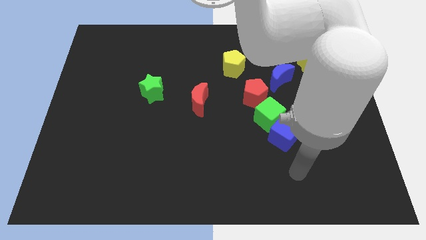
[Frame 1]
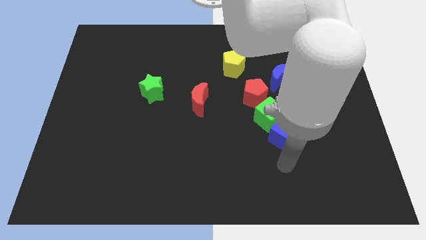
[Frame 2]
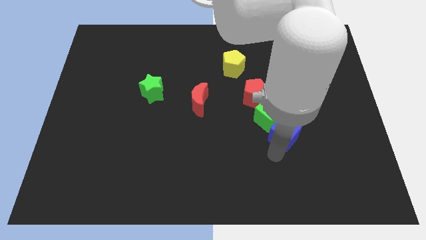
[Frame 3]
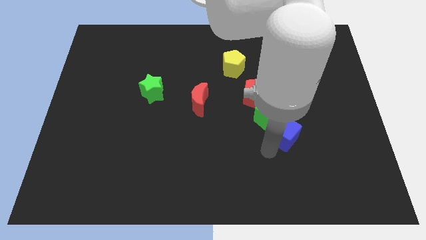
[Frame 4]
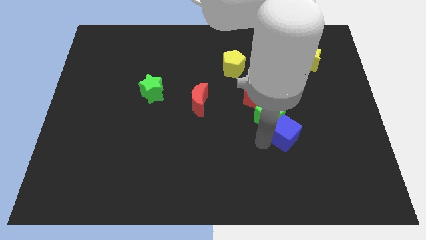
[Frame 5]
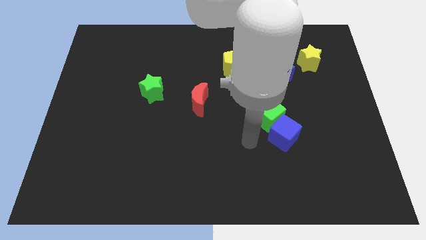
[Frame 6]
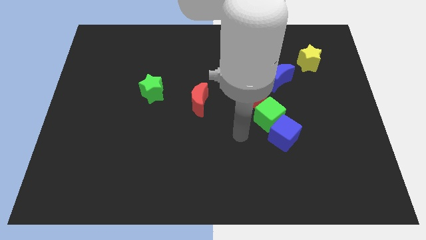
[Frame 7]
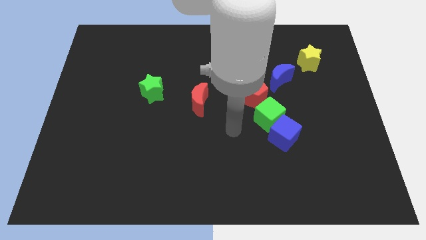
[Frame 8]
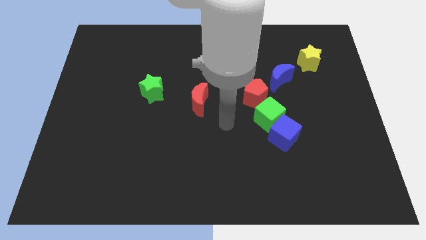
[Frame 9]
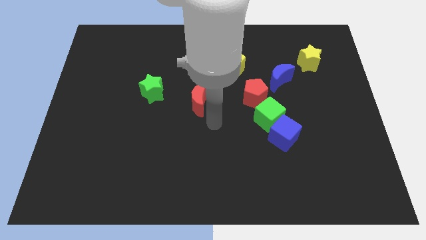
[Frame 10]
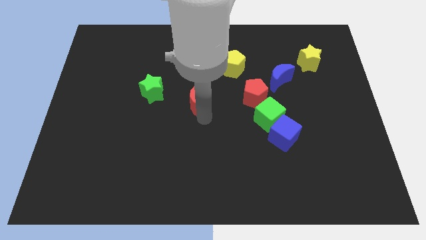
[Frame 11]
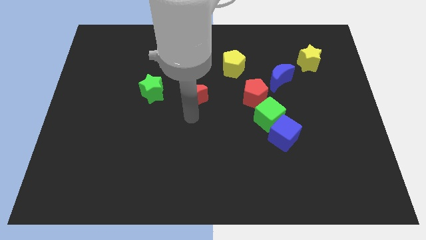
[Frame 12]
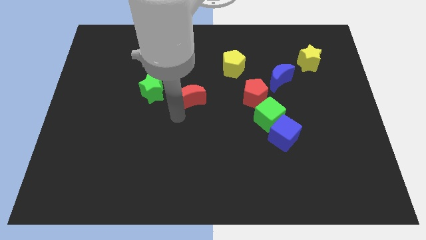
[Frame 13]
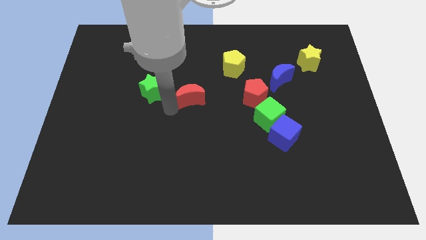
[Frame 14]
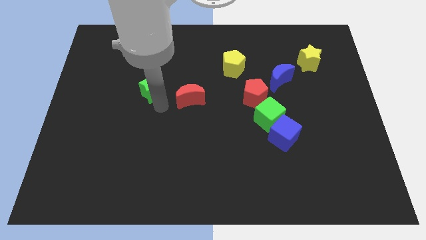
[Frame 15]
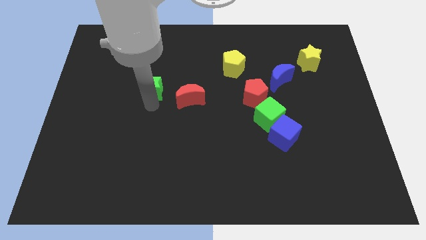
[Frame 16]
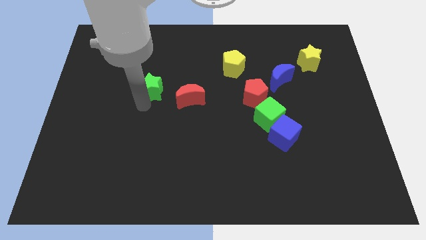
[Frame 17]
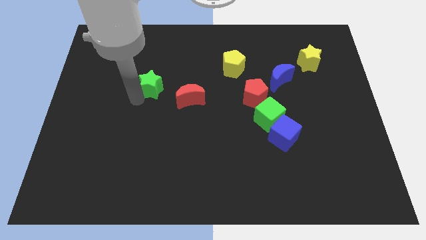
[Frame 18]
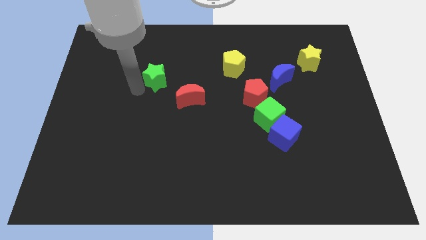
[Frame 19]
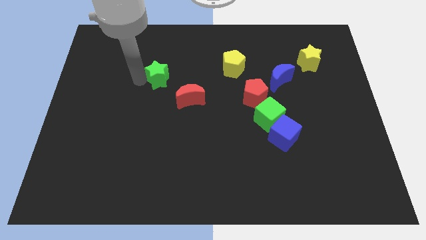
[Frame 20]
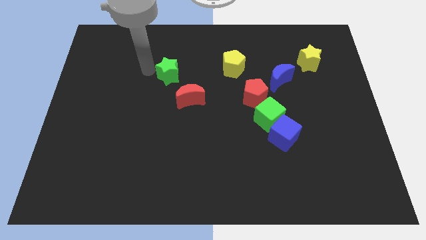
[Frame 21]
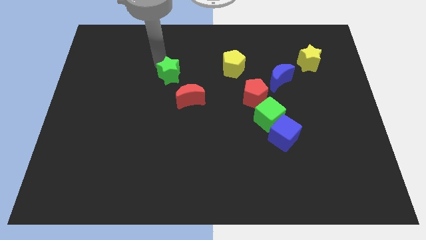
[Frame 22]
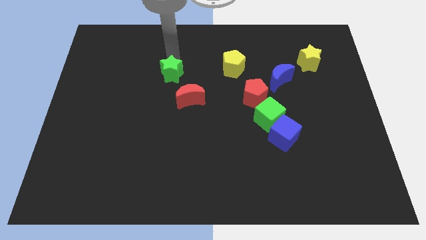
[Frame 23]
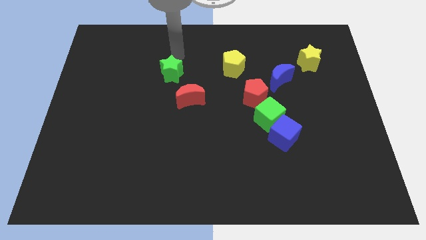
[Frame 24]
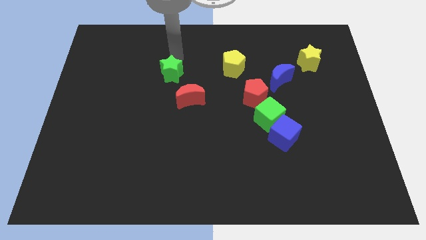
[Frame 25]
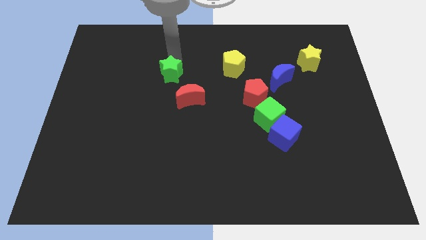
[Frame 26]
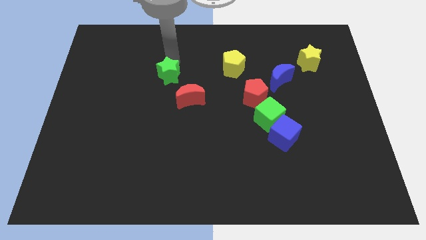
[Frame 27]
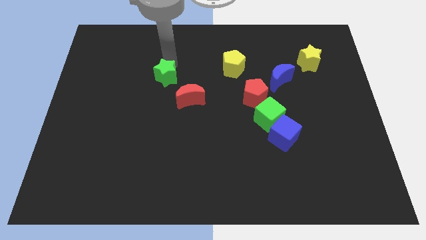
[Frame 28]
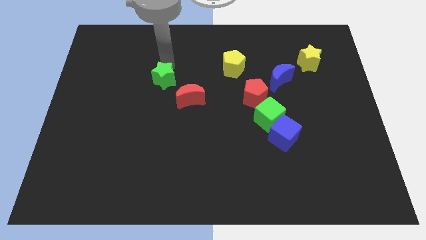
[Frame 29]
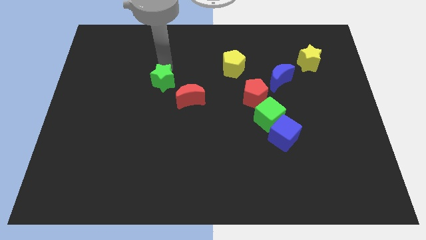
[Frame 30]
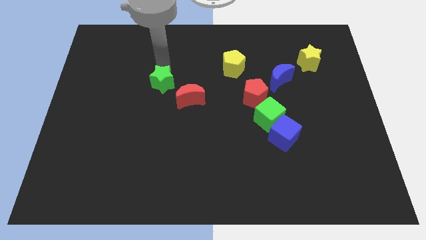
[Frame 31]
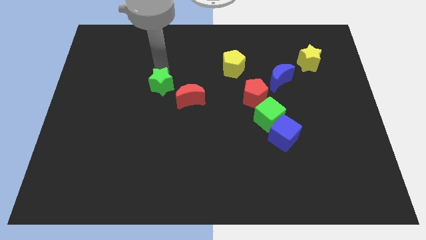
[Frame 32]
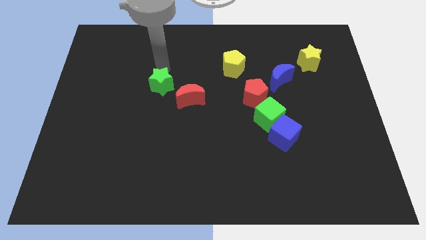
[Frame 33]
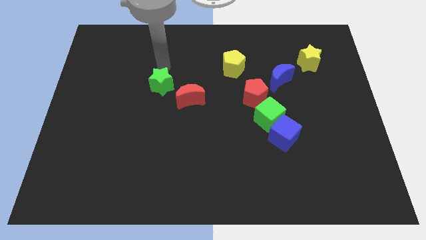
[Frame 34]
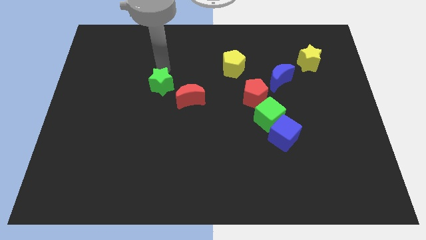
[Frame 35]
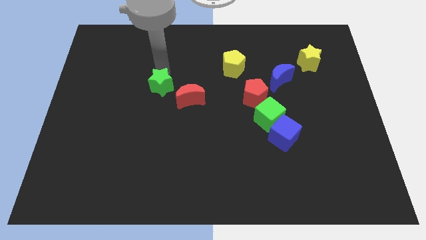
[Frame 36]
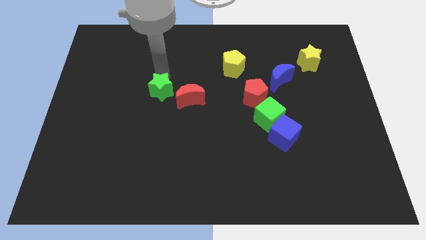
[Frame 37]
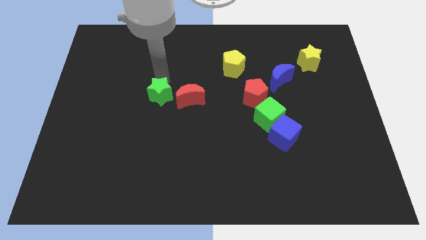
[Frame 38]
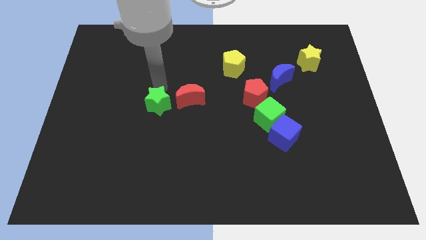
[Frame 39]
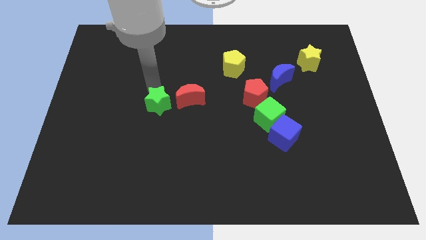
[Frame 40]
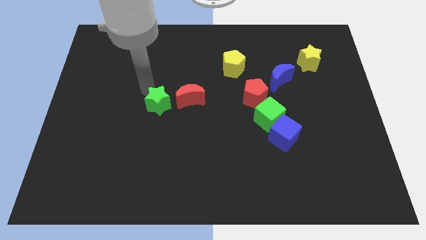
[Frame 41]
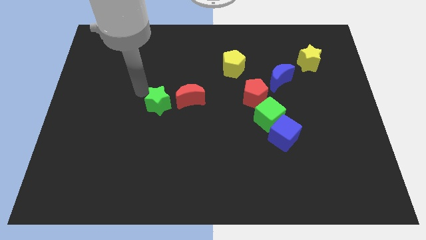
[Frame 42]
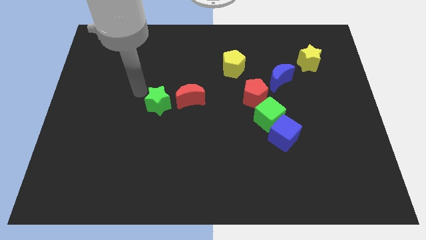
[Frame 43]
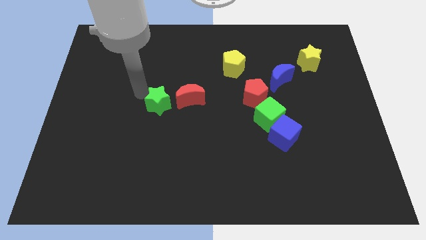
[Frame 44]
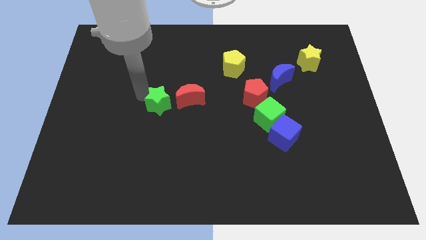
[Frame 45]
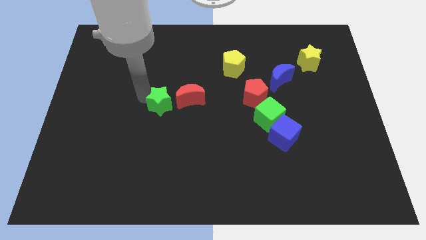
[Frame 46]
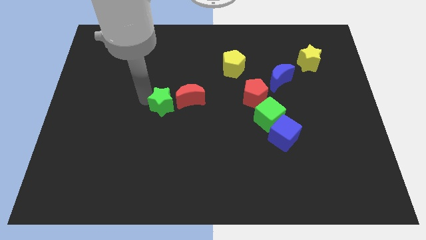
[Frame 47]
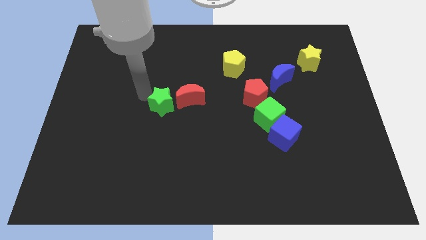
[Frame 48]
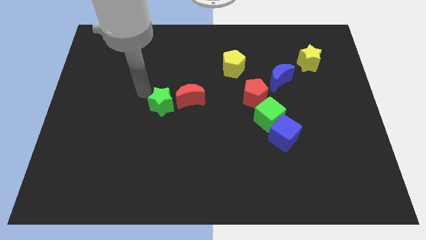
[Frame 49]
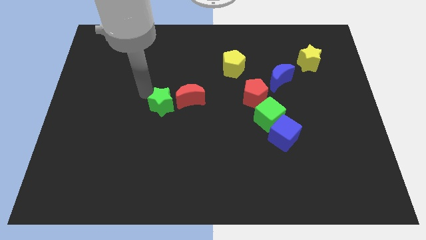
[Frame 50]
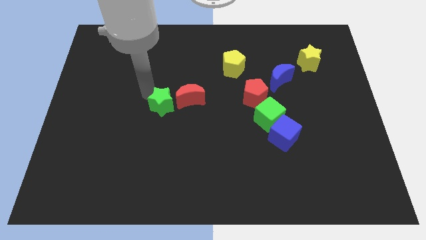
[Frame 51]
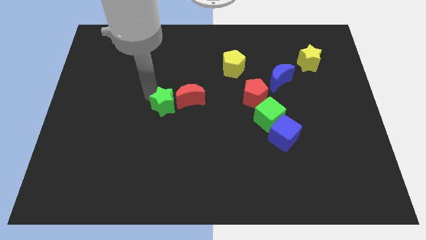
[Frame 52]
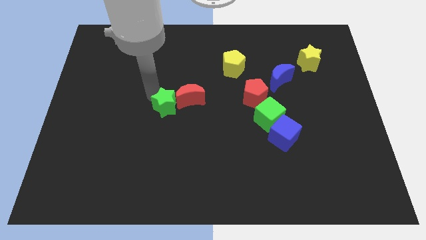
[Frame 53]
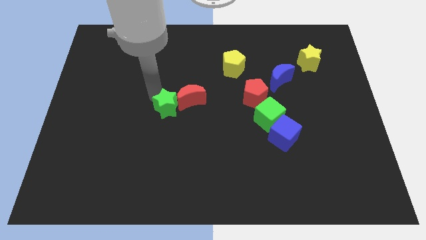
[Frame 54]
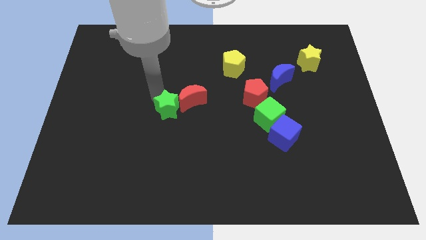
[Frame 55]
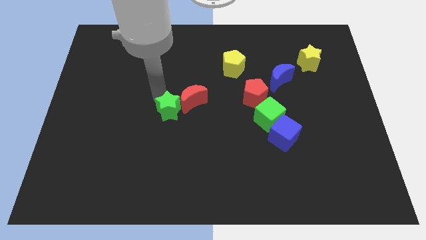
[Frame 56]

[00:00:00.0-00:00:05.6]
move the green star a little downwards and then to the right

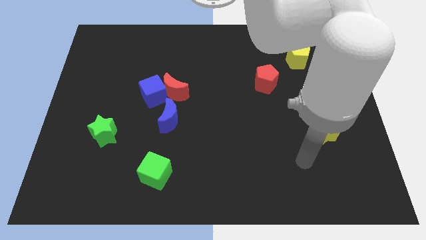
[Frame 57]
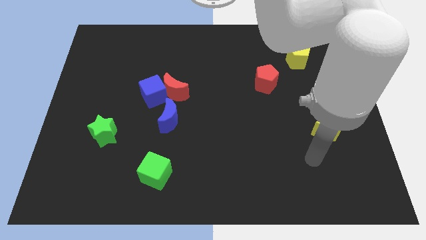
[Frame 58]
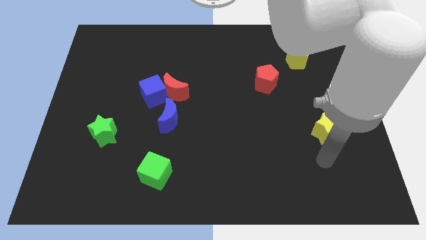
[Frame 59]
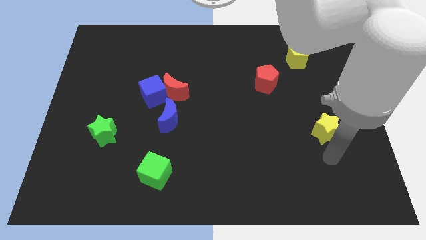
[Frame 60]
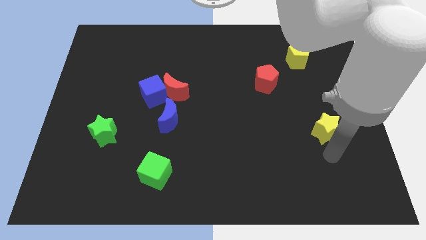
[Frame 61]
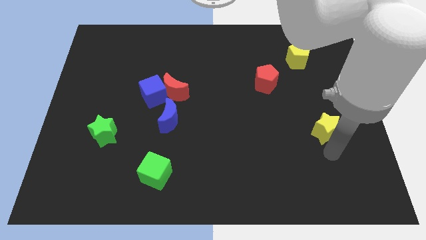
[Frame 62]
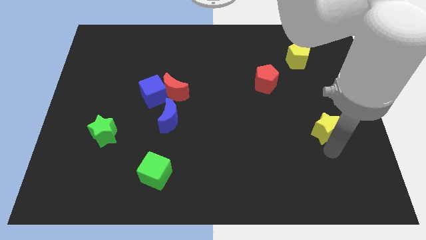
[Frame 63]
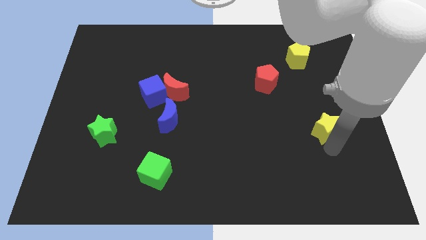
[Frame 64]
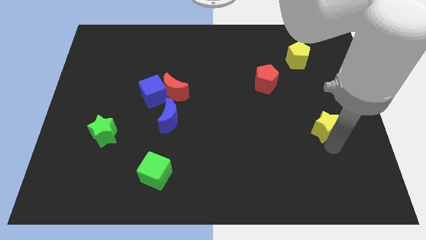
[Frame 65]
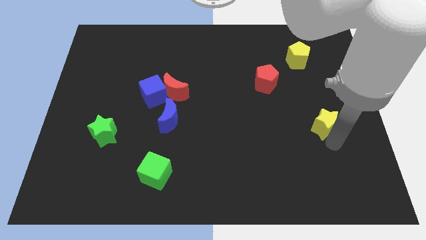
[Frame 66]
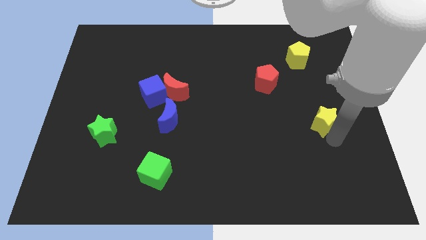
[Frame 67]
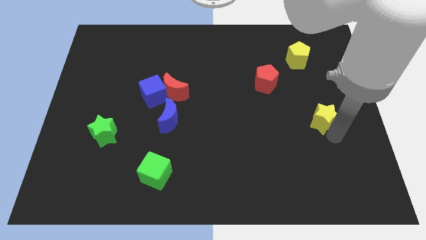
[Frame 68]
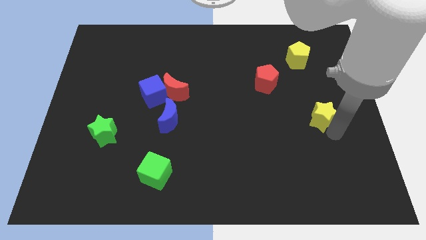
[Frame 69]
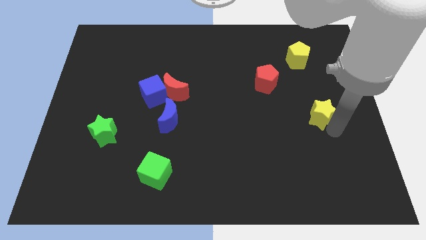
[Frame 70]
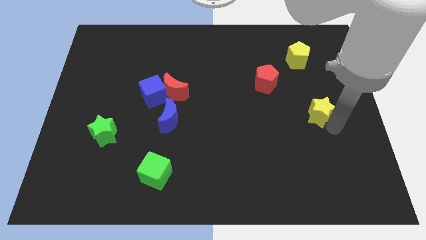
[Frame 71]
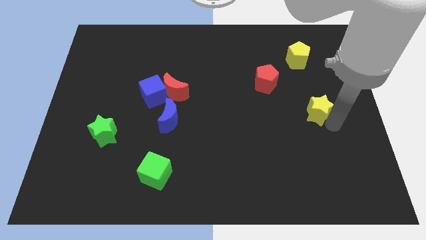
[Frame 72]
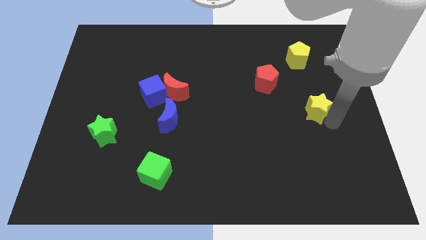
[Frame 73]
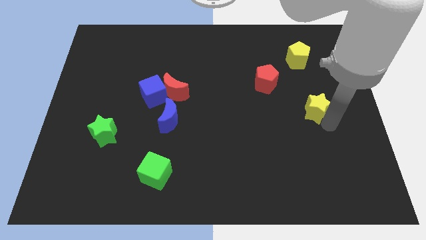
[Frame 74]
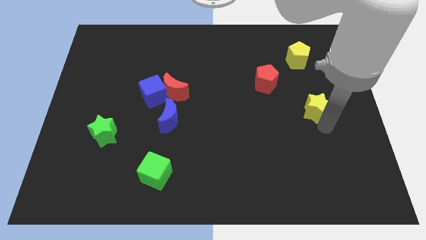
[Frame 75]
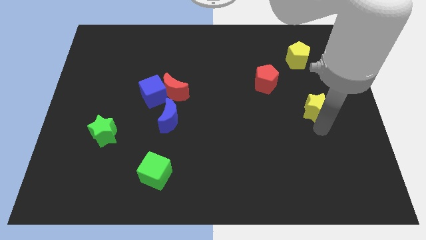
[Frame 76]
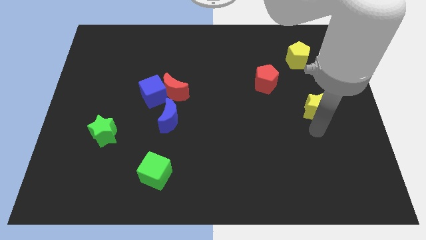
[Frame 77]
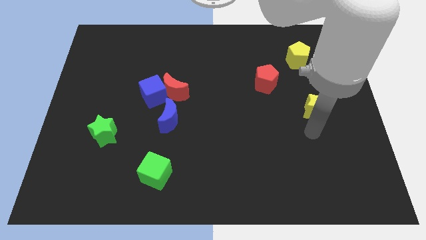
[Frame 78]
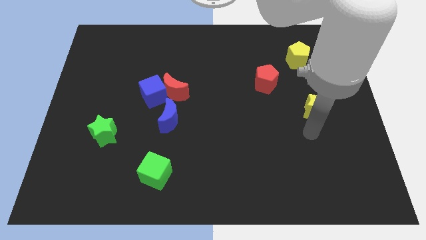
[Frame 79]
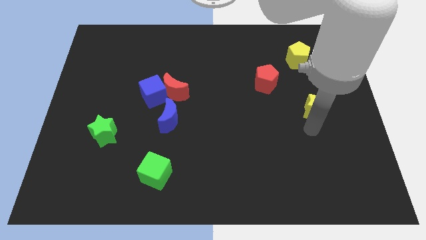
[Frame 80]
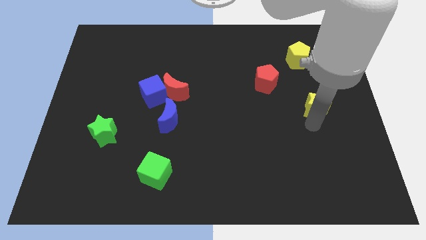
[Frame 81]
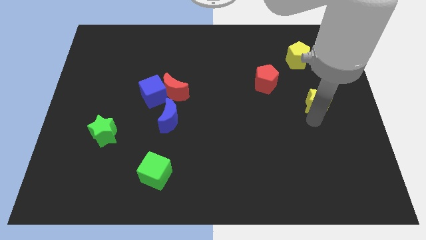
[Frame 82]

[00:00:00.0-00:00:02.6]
move the yellow star upwards slightly
